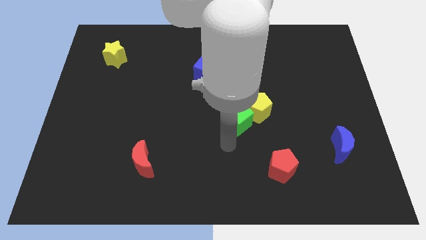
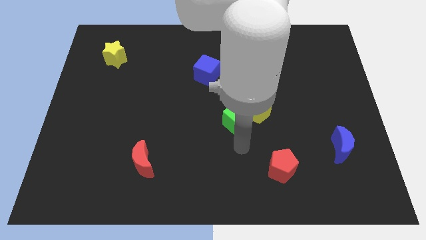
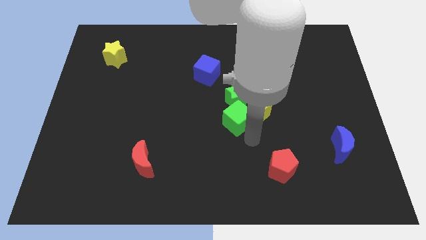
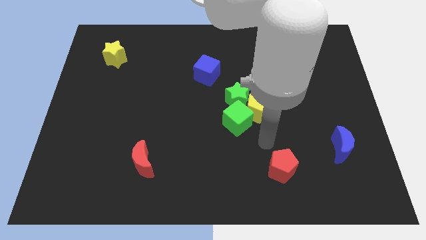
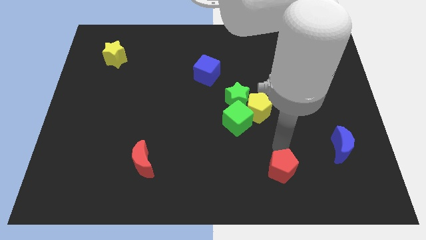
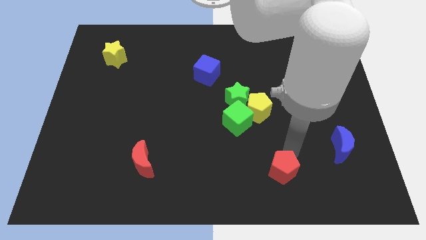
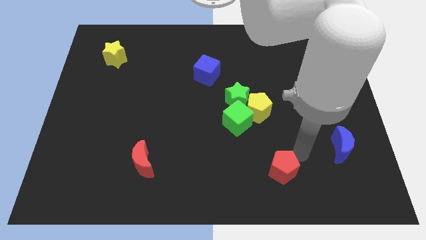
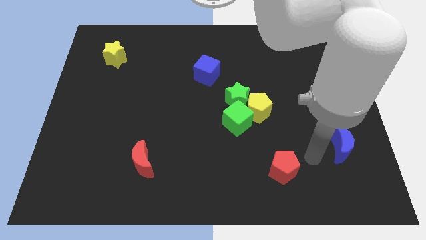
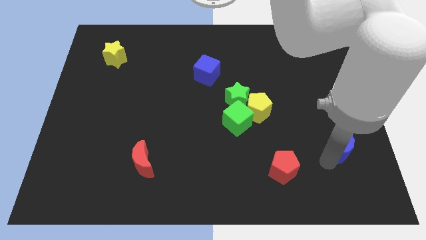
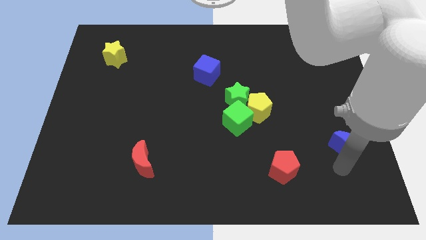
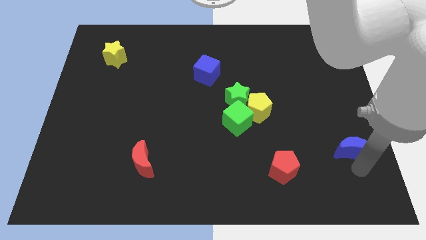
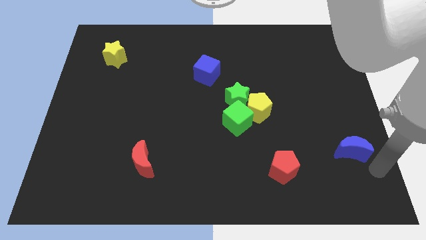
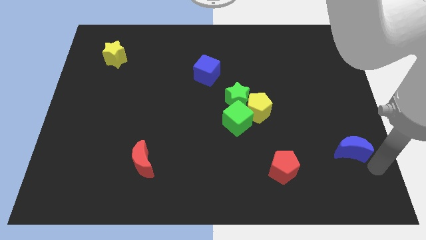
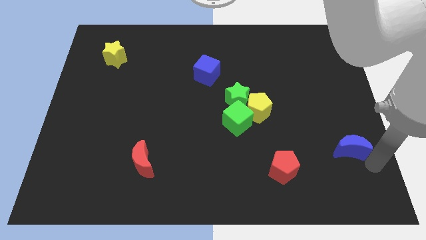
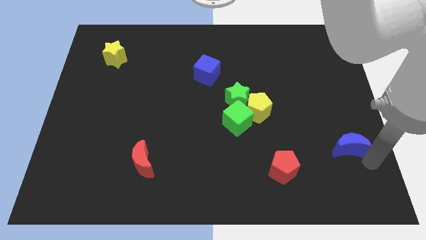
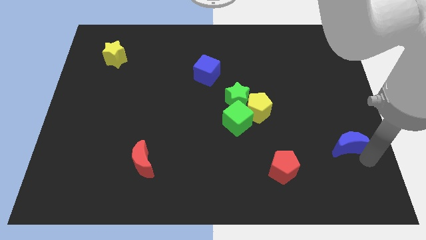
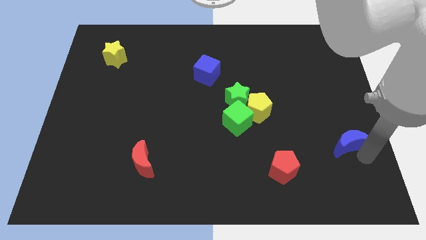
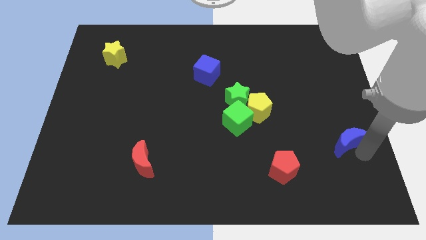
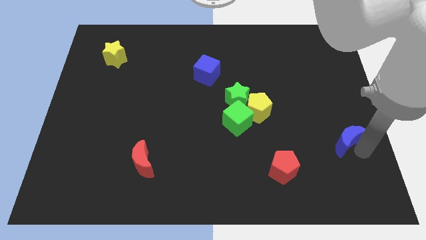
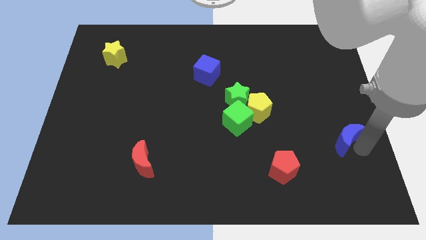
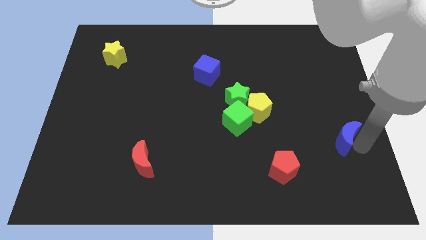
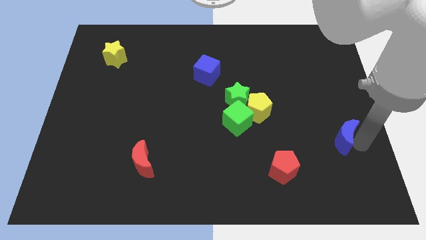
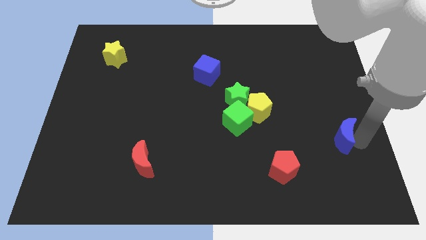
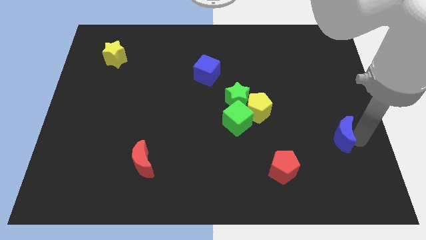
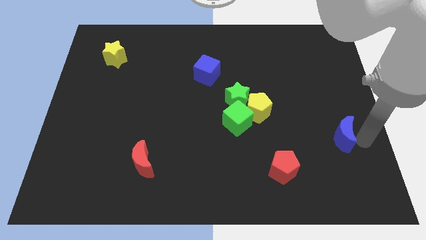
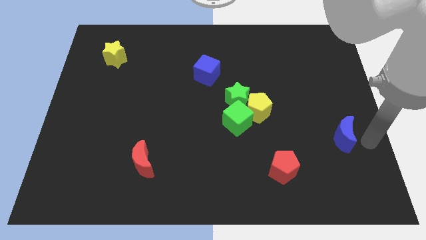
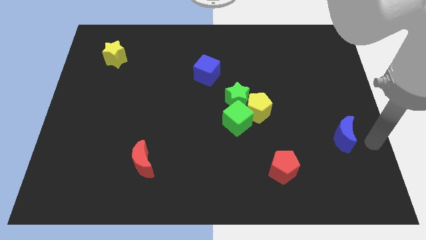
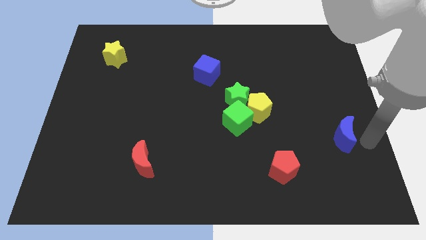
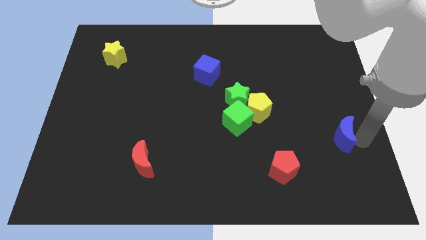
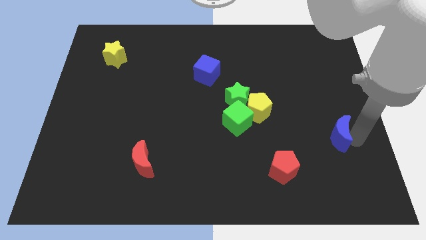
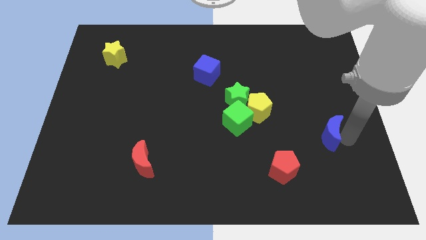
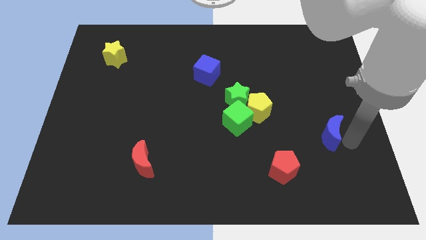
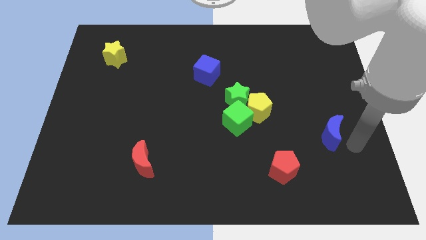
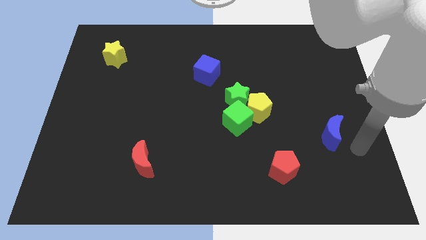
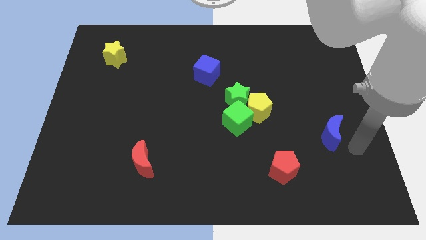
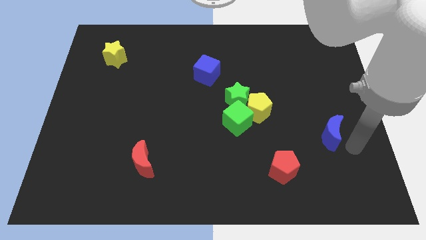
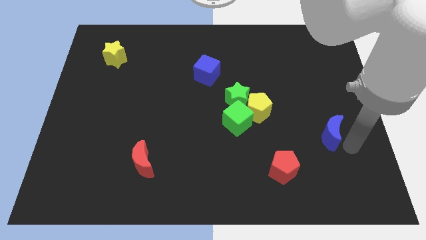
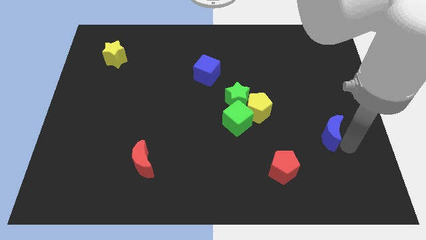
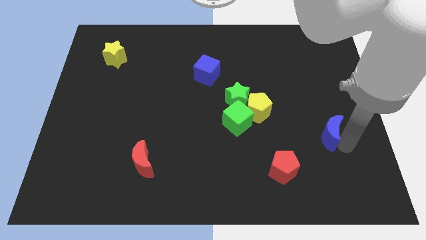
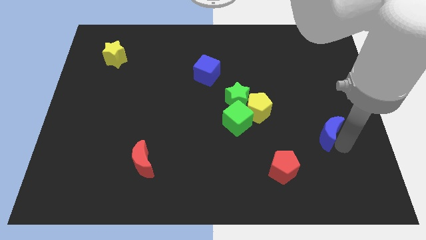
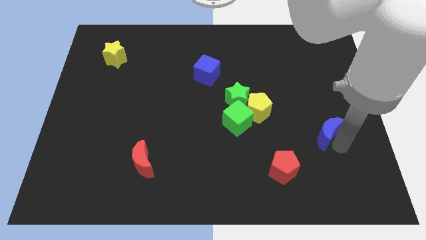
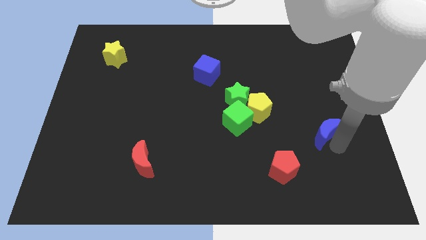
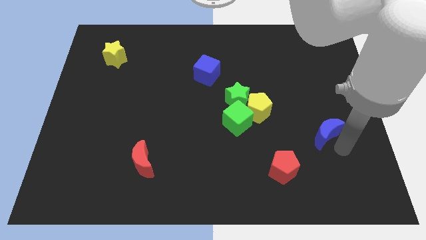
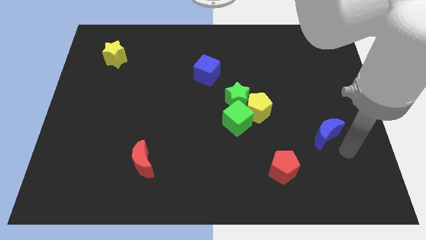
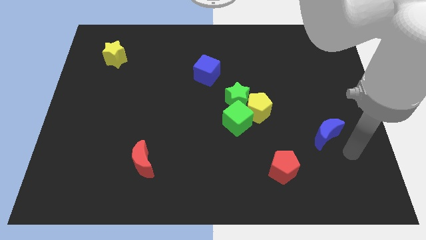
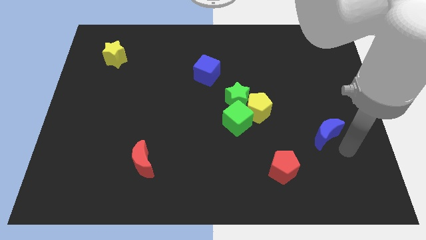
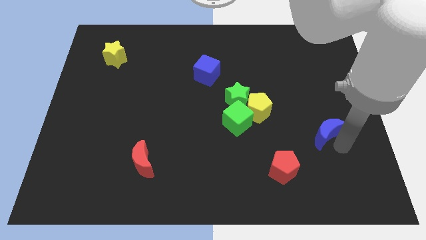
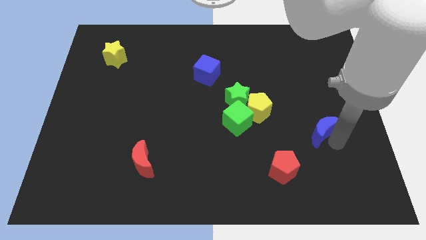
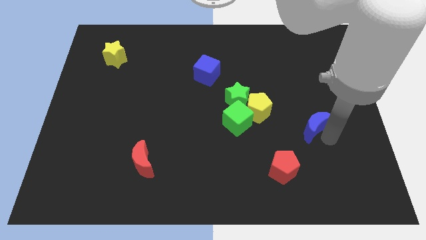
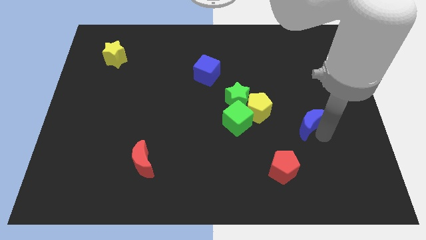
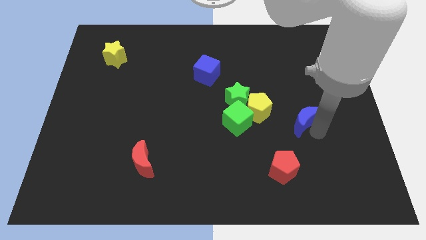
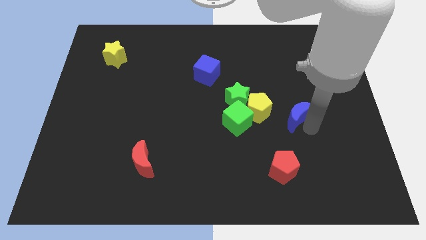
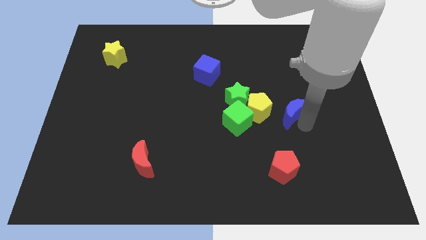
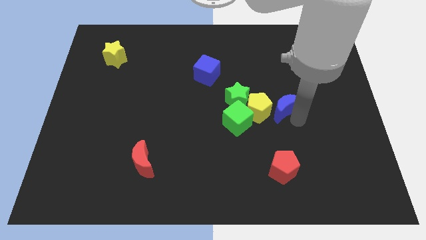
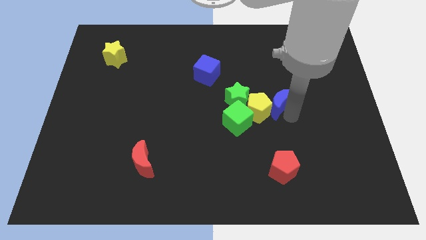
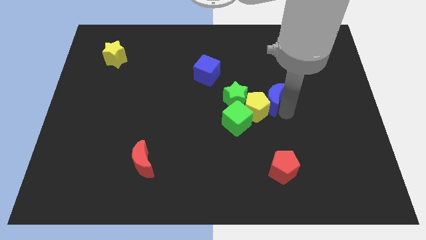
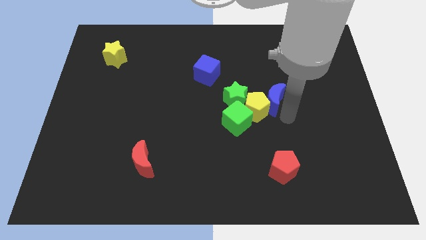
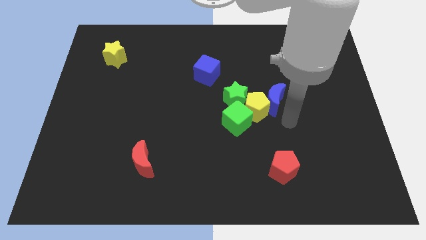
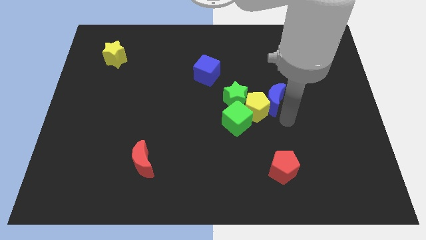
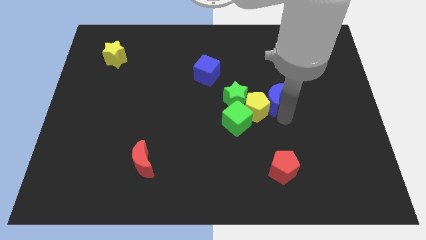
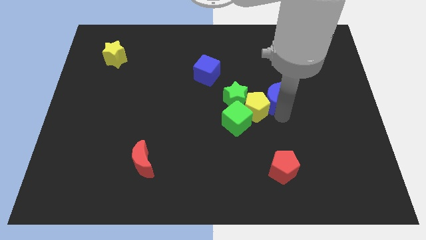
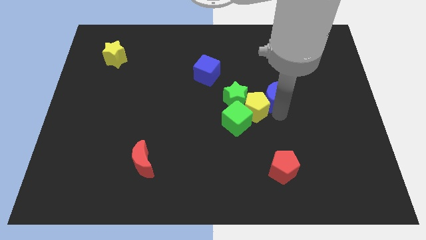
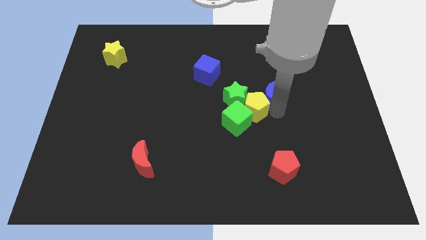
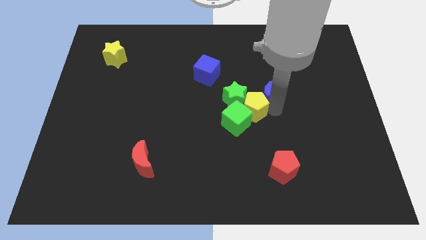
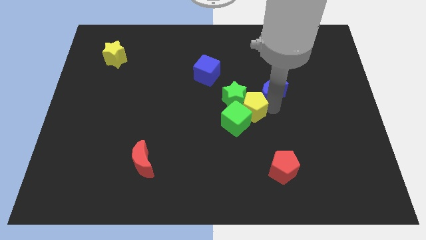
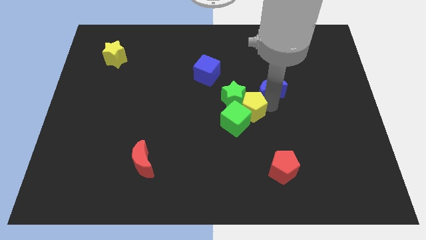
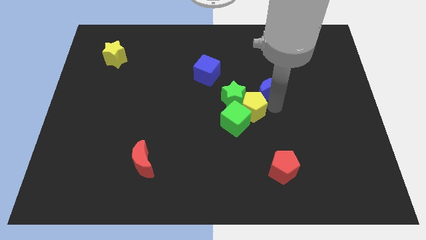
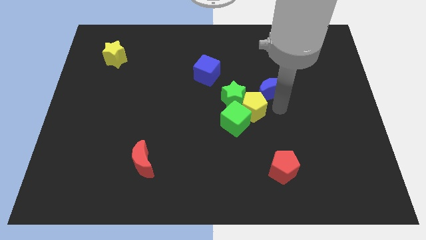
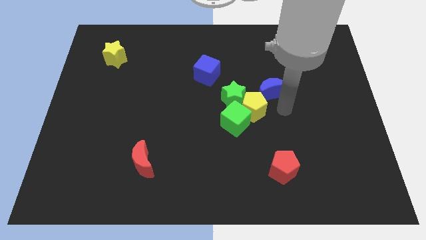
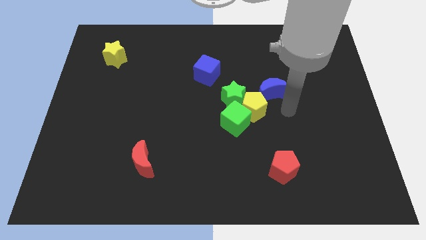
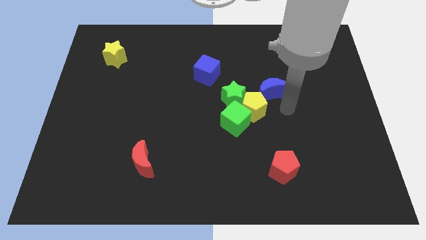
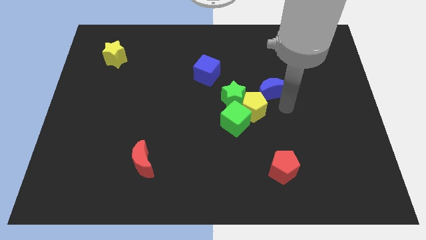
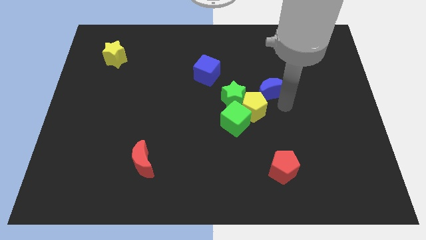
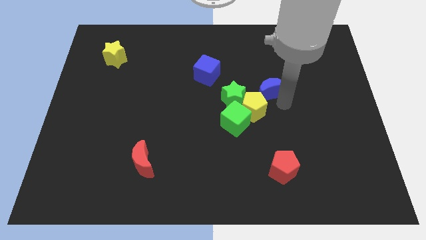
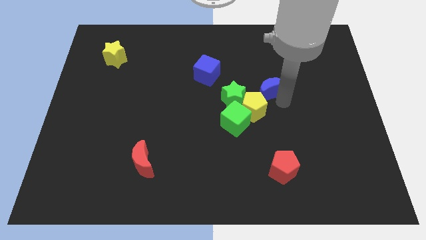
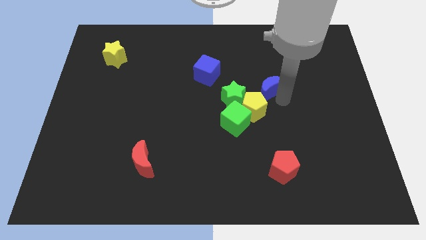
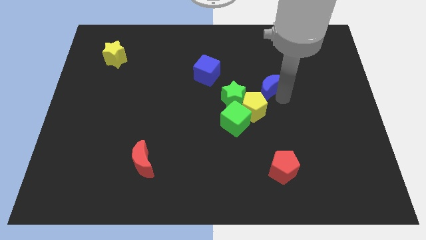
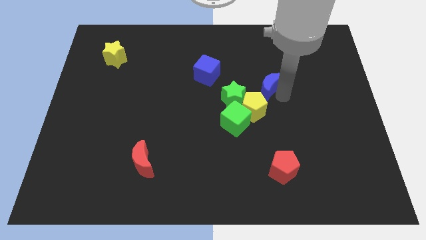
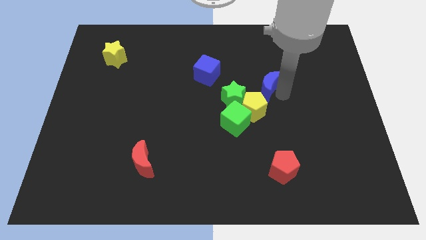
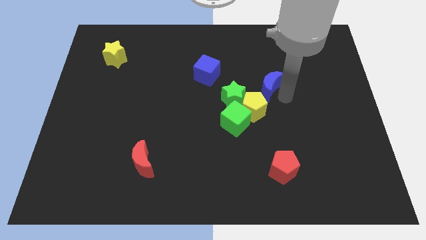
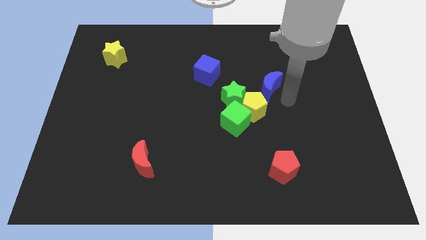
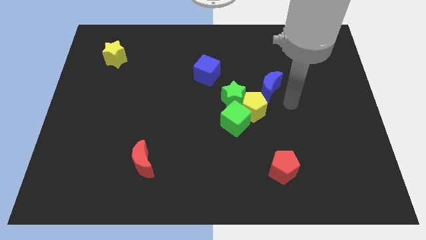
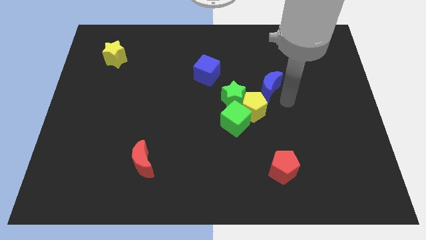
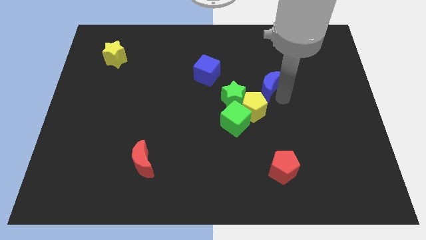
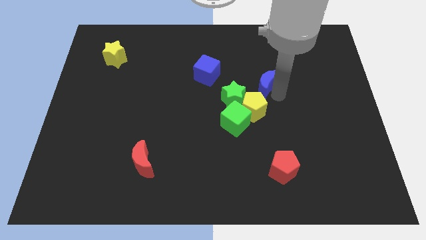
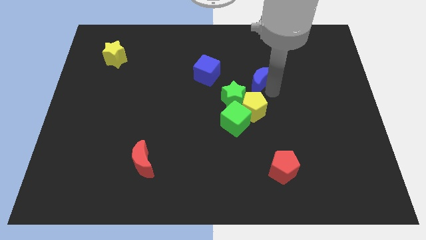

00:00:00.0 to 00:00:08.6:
slide the blue moon right of the blue cube
